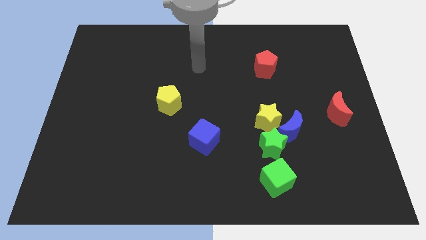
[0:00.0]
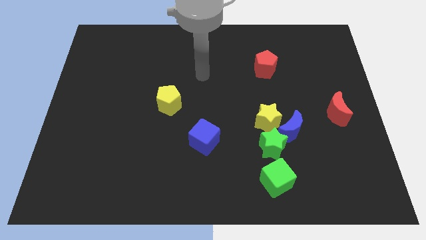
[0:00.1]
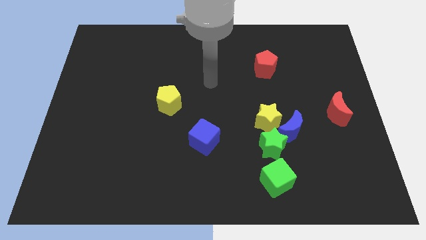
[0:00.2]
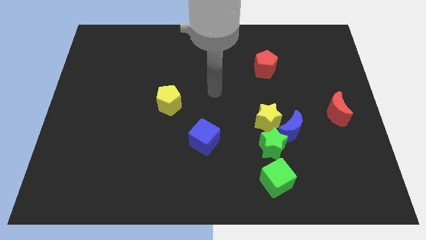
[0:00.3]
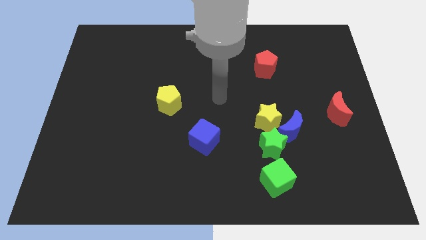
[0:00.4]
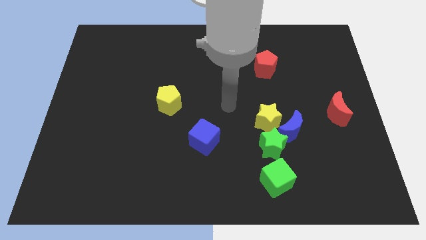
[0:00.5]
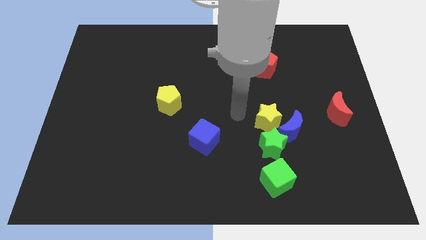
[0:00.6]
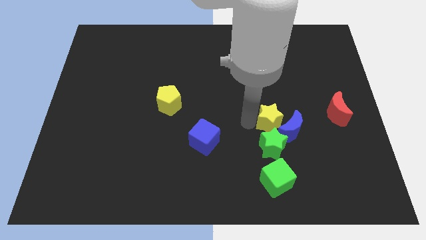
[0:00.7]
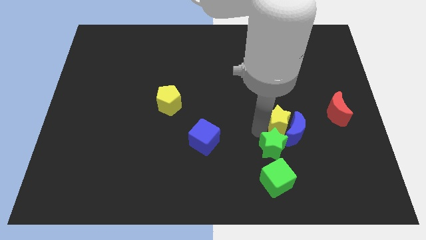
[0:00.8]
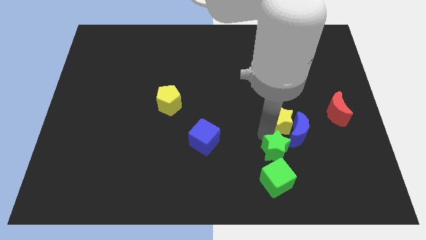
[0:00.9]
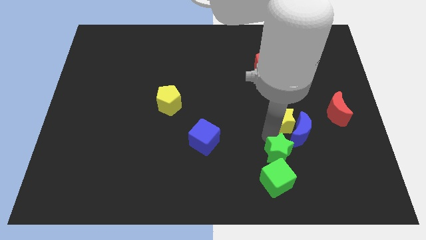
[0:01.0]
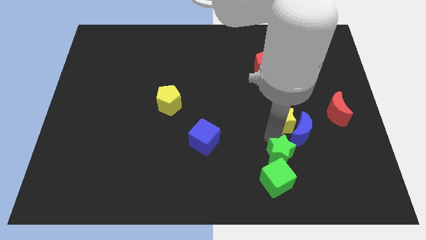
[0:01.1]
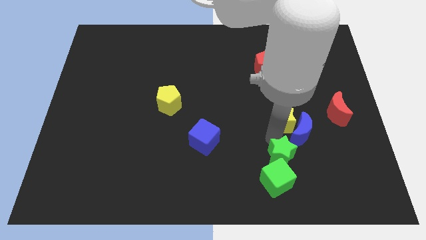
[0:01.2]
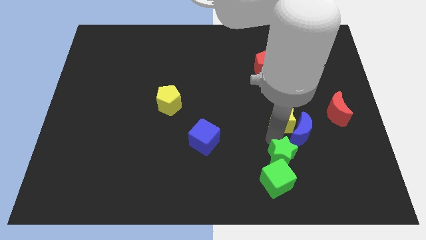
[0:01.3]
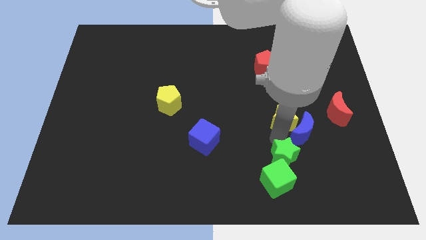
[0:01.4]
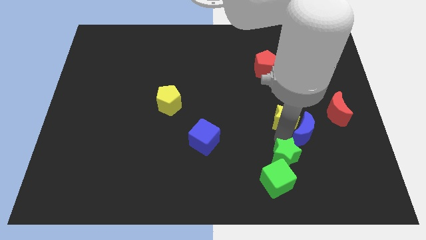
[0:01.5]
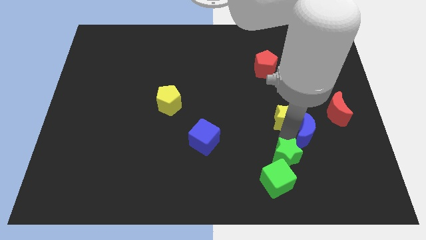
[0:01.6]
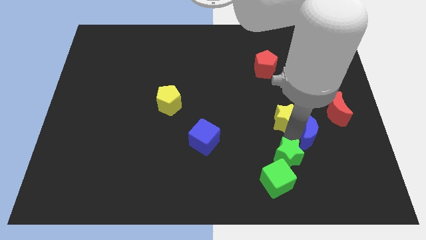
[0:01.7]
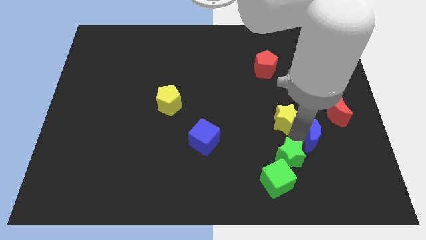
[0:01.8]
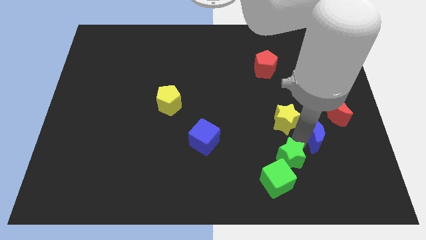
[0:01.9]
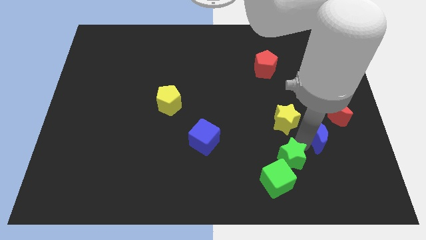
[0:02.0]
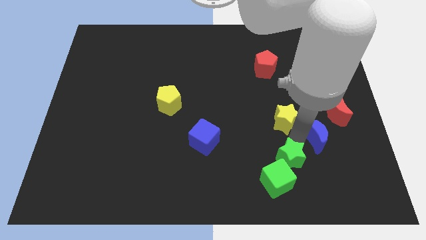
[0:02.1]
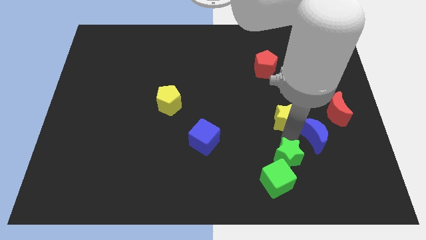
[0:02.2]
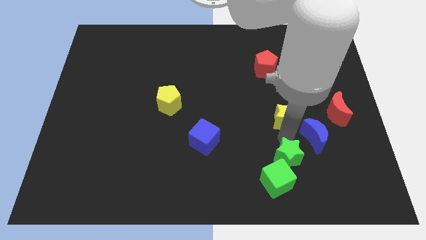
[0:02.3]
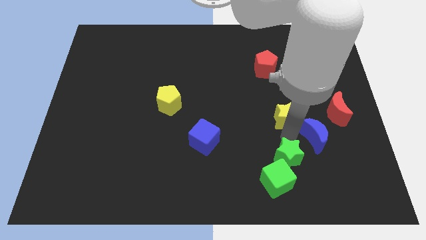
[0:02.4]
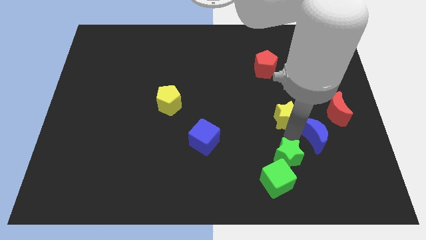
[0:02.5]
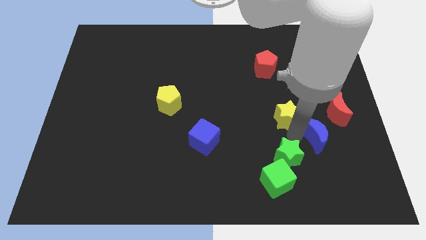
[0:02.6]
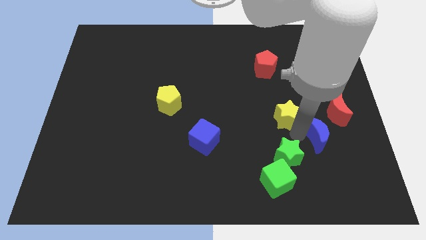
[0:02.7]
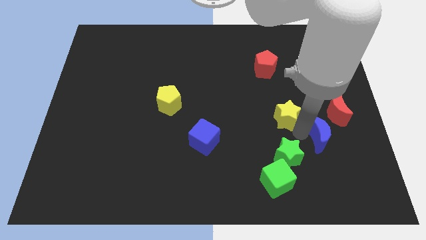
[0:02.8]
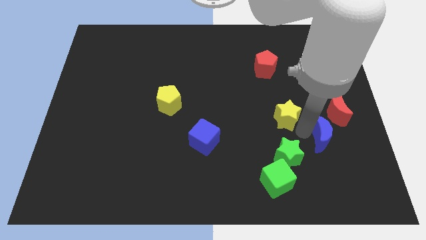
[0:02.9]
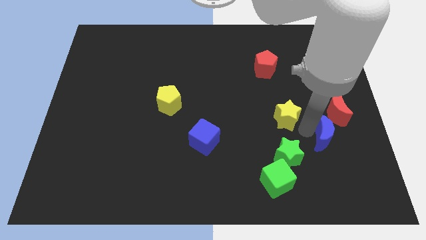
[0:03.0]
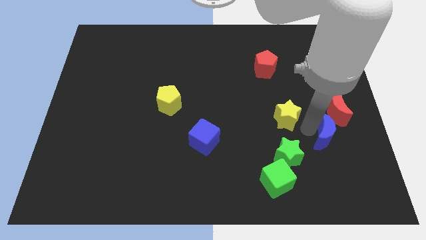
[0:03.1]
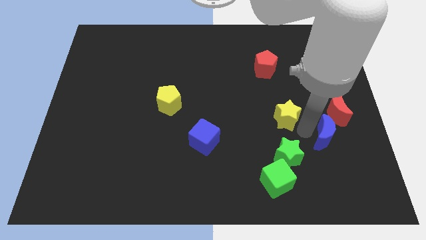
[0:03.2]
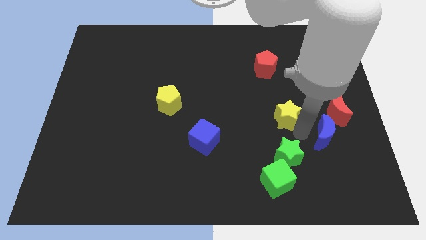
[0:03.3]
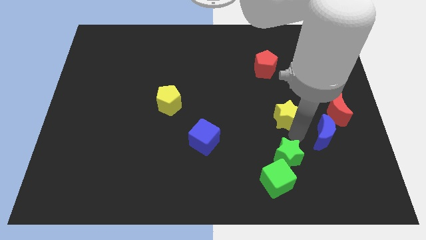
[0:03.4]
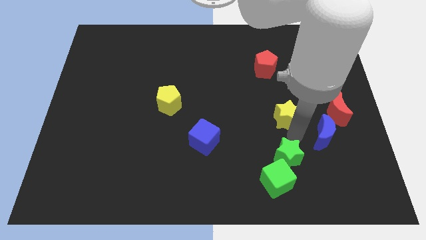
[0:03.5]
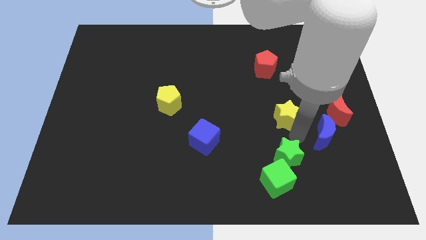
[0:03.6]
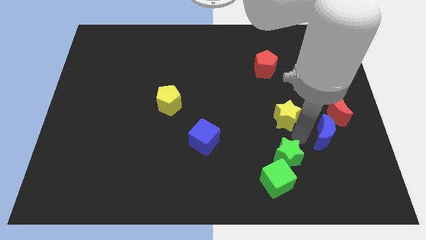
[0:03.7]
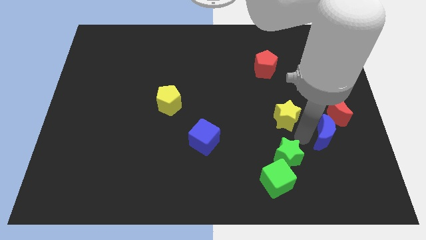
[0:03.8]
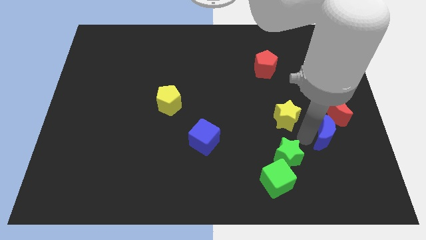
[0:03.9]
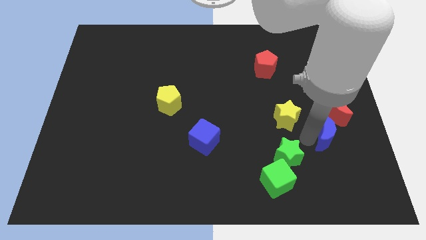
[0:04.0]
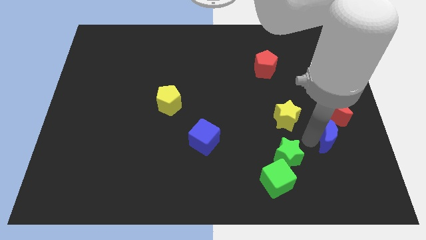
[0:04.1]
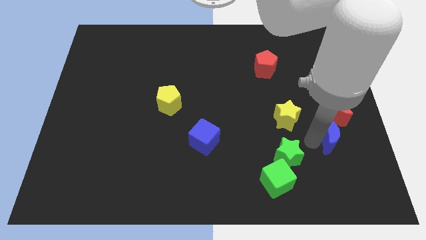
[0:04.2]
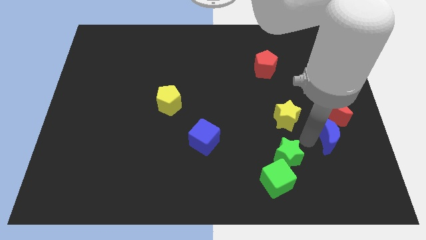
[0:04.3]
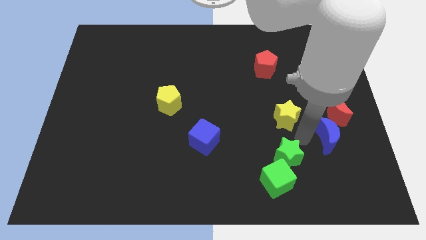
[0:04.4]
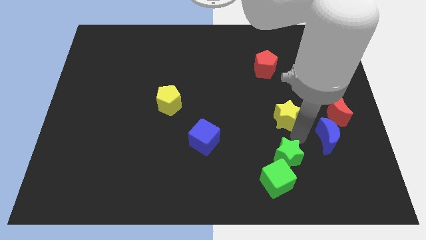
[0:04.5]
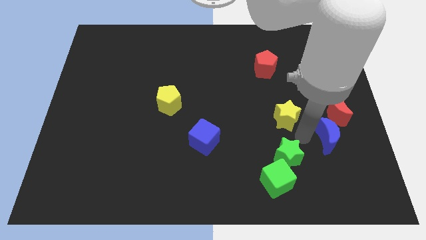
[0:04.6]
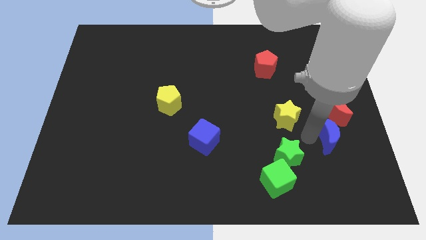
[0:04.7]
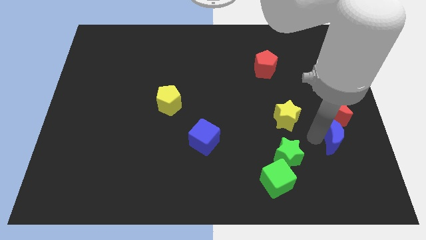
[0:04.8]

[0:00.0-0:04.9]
separate the blue moon from the green star and yellow star

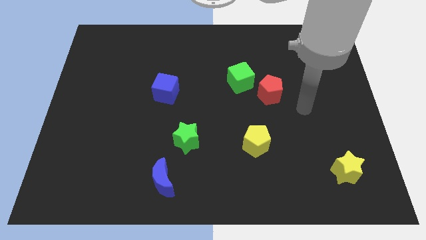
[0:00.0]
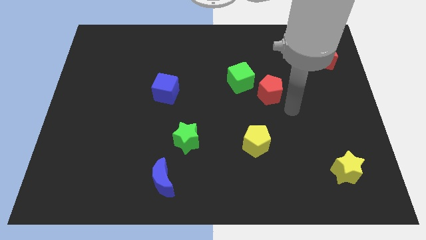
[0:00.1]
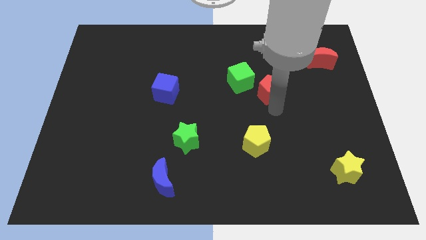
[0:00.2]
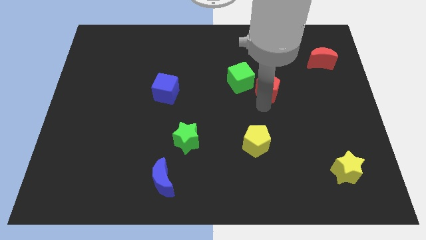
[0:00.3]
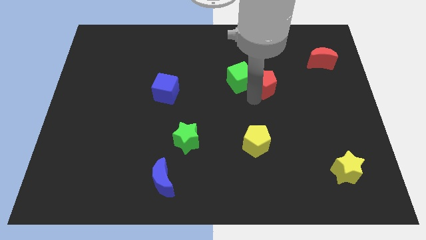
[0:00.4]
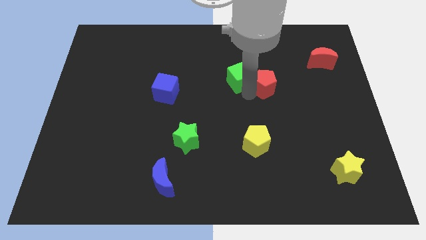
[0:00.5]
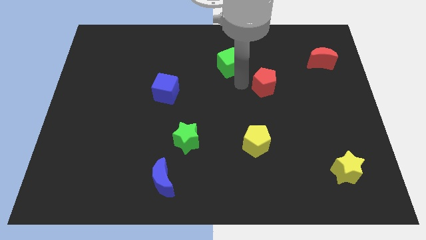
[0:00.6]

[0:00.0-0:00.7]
move the red pentagon away from the green cube

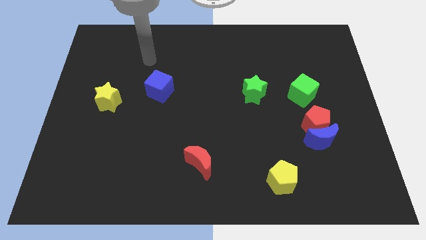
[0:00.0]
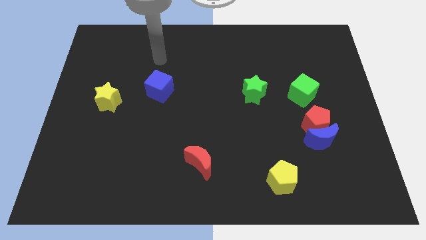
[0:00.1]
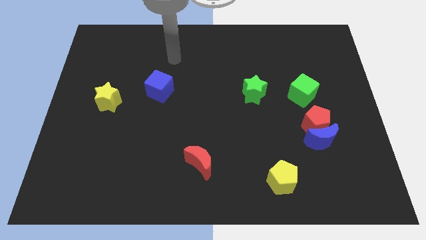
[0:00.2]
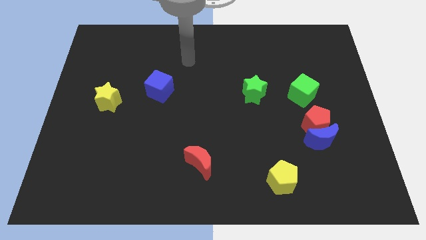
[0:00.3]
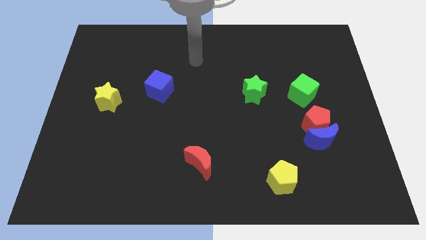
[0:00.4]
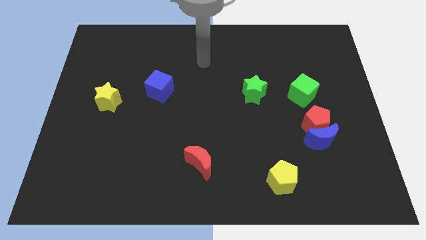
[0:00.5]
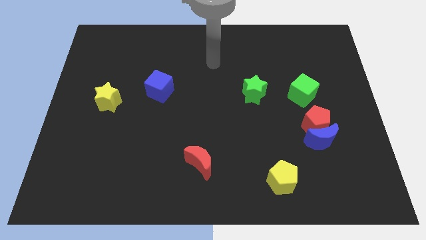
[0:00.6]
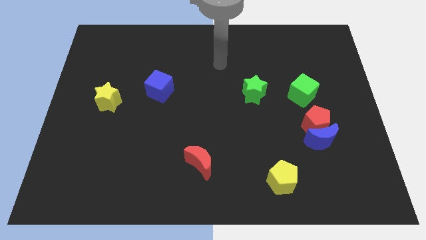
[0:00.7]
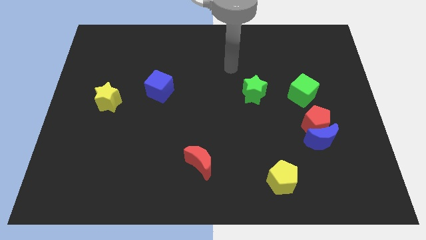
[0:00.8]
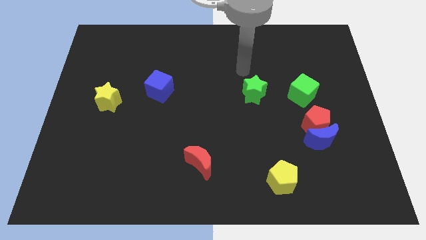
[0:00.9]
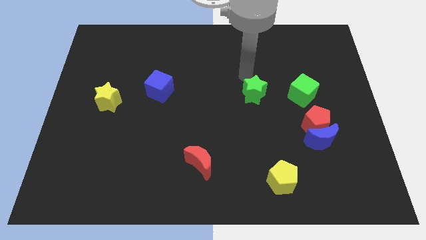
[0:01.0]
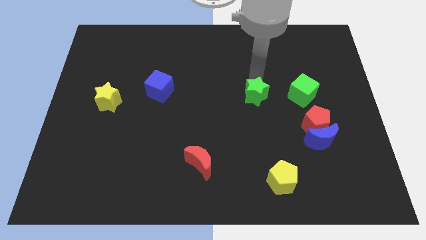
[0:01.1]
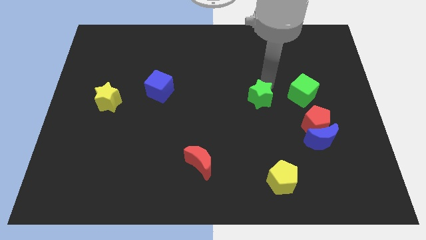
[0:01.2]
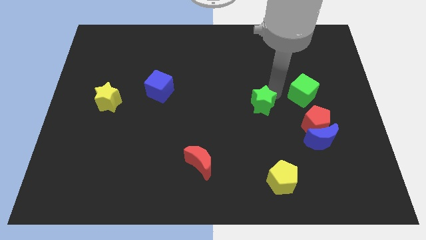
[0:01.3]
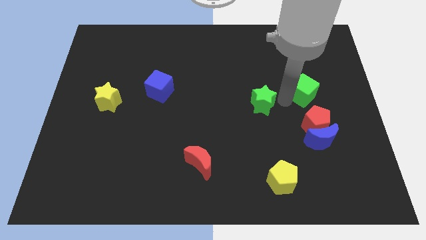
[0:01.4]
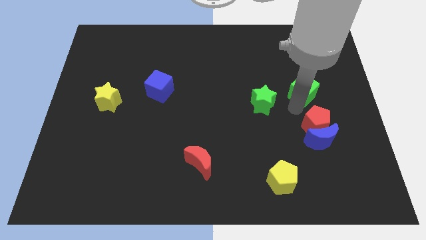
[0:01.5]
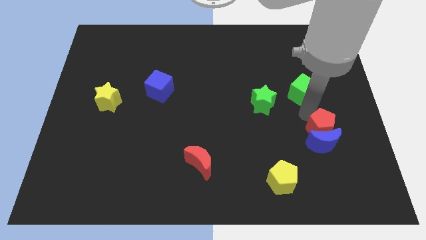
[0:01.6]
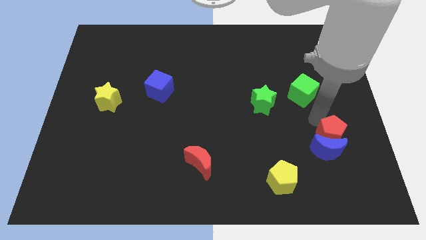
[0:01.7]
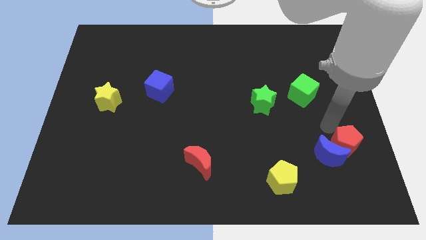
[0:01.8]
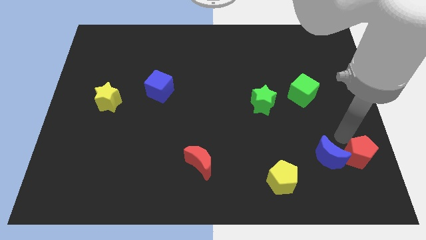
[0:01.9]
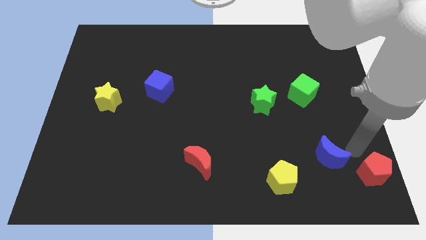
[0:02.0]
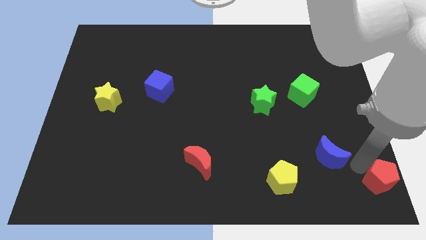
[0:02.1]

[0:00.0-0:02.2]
pull the blue moon apart from the red pentagon

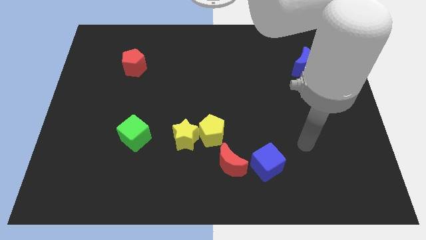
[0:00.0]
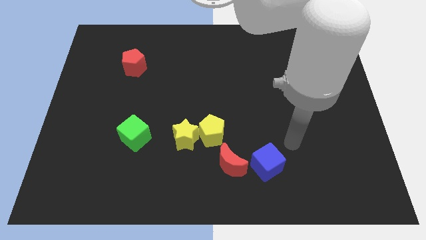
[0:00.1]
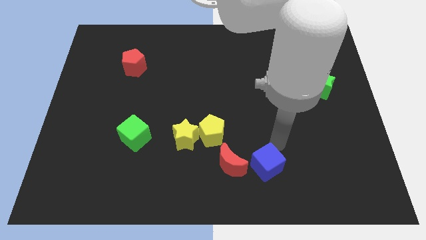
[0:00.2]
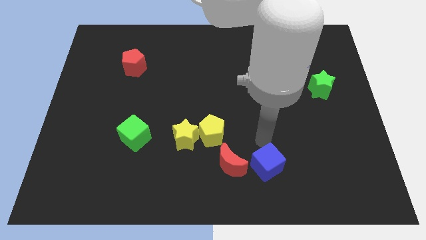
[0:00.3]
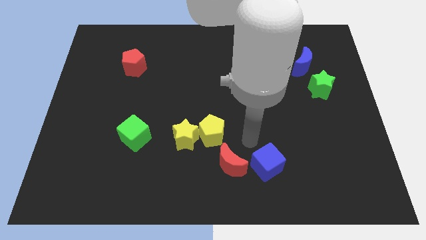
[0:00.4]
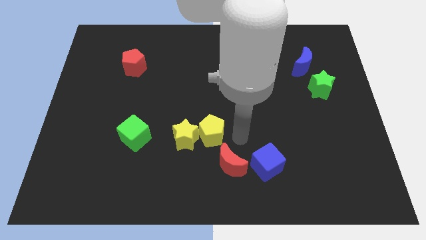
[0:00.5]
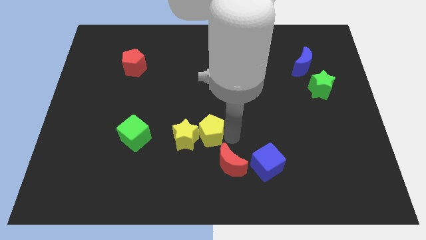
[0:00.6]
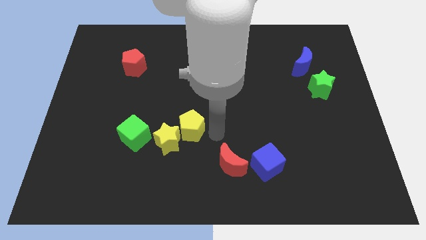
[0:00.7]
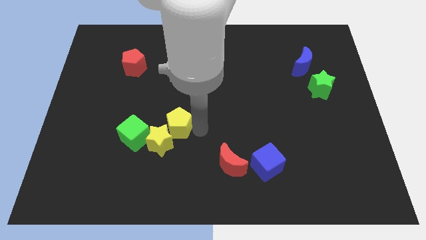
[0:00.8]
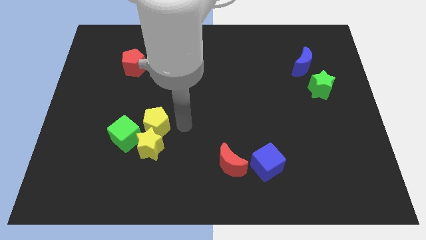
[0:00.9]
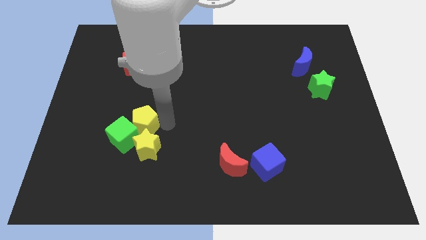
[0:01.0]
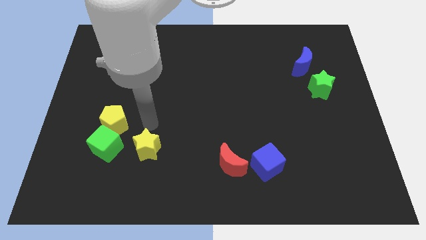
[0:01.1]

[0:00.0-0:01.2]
pull the yellow star apart from the yellow pentagon

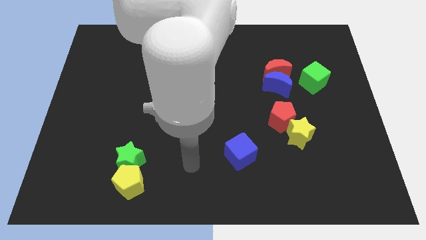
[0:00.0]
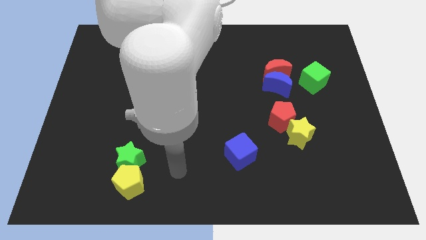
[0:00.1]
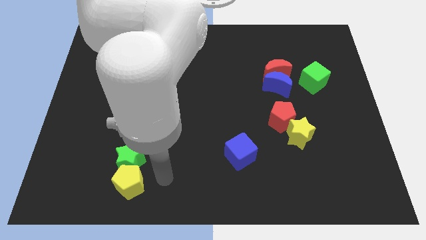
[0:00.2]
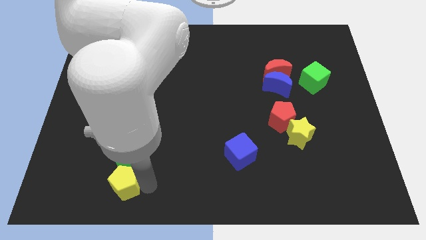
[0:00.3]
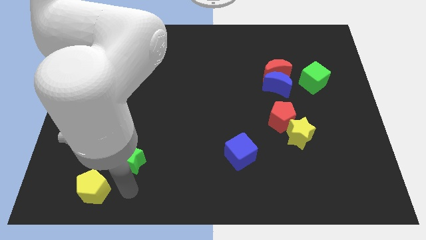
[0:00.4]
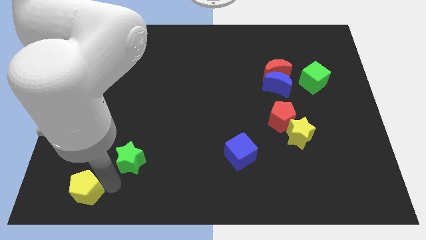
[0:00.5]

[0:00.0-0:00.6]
separate the green star from the yellow pentagon
